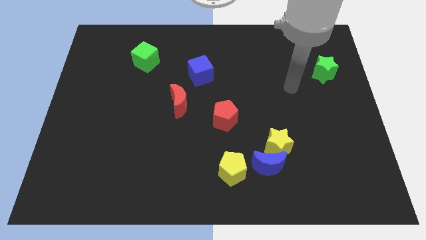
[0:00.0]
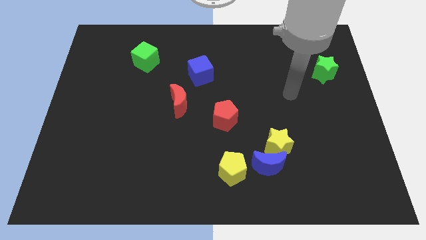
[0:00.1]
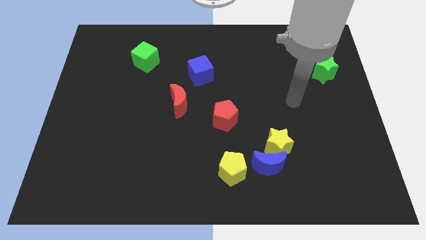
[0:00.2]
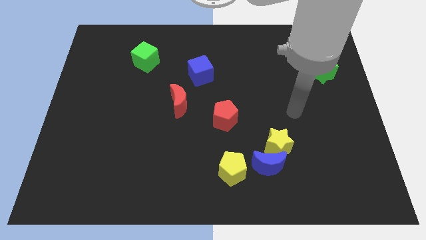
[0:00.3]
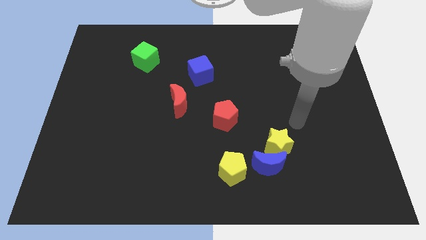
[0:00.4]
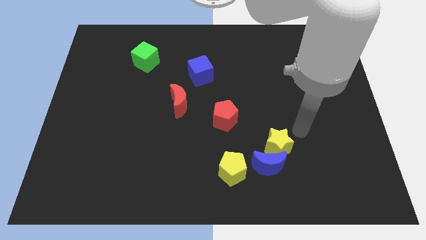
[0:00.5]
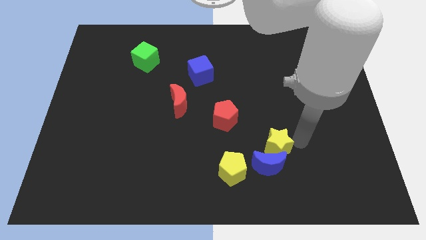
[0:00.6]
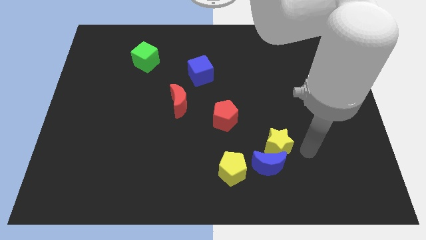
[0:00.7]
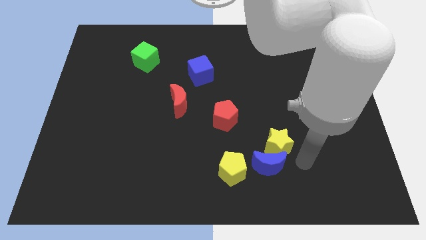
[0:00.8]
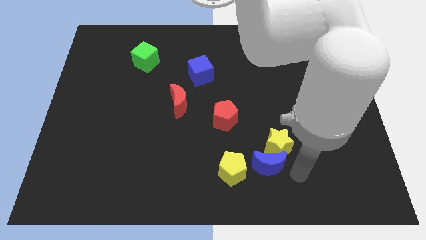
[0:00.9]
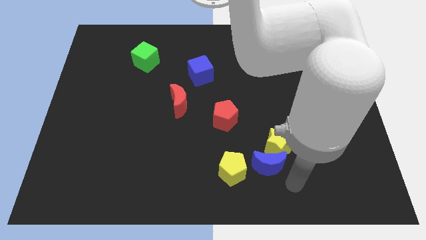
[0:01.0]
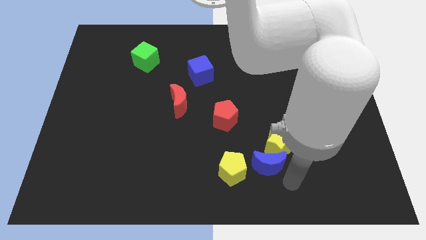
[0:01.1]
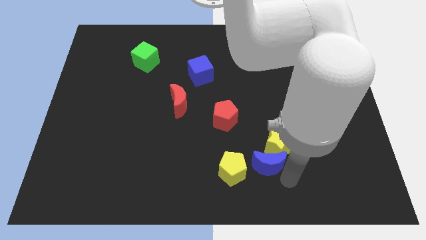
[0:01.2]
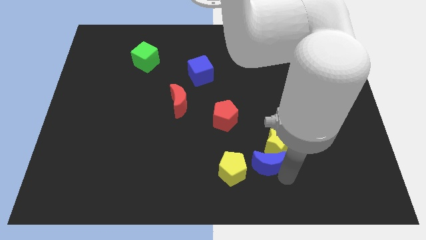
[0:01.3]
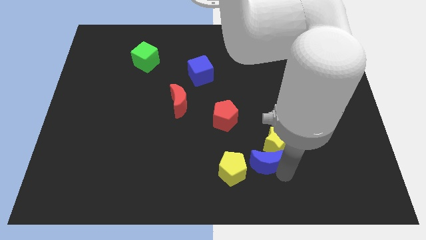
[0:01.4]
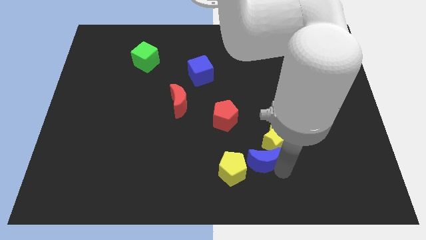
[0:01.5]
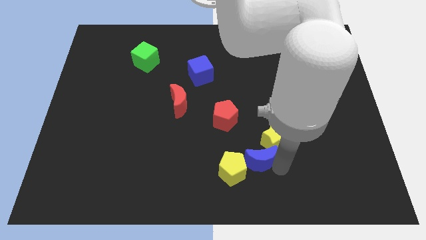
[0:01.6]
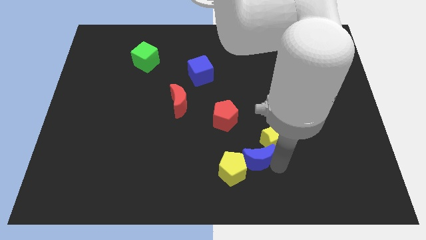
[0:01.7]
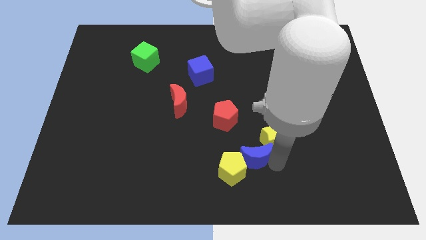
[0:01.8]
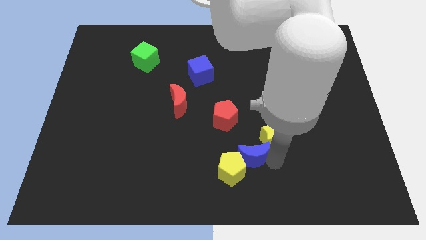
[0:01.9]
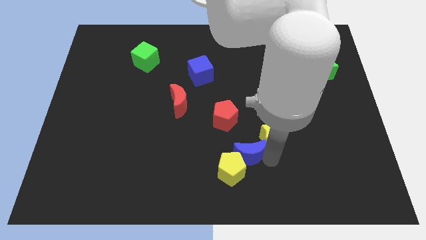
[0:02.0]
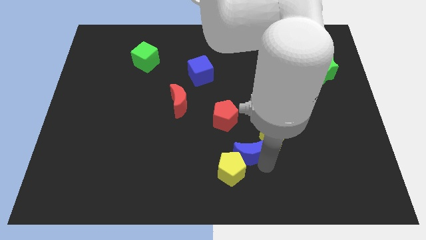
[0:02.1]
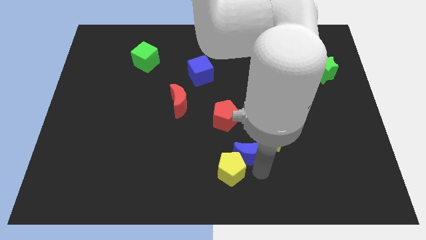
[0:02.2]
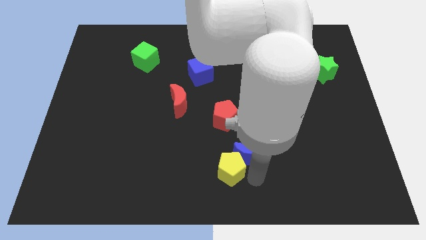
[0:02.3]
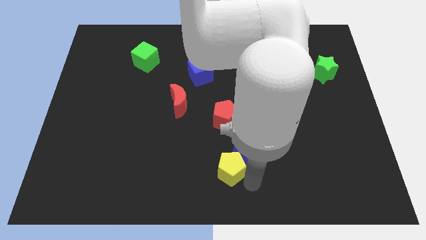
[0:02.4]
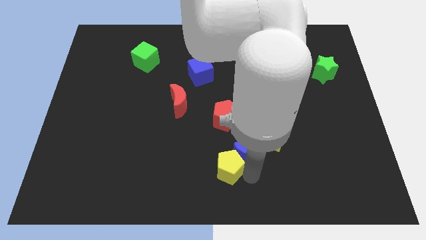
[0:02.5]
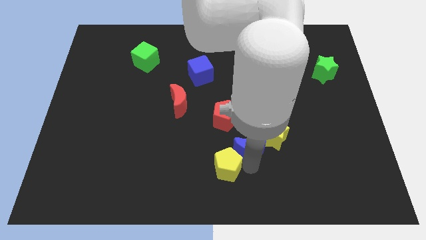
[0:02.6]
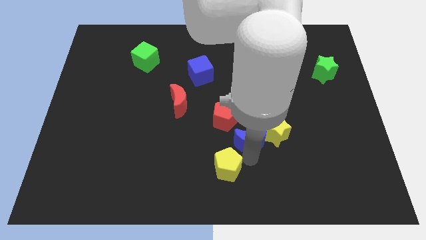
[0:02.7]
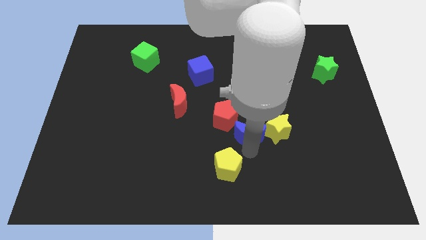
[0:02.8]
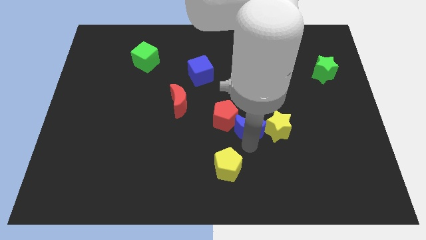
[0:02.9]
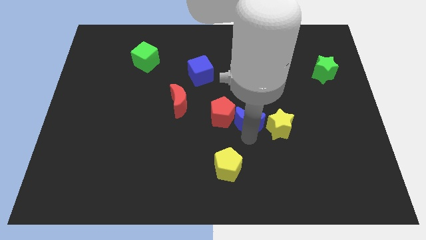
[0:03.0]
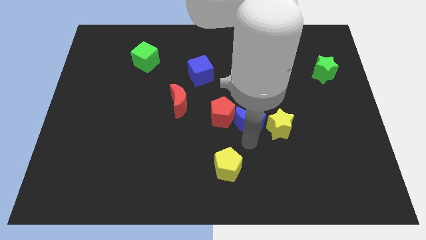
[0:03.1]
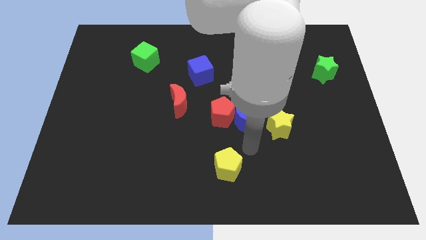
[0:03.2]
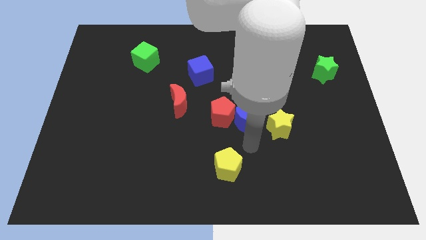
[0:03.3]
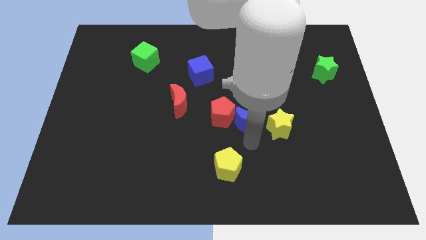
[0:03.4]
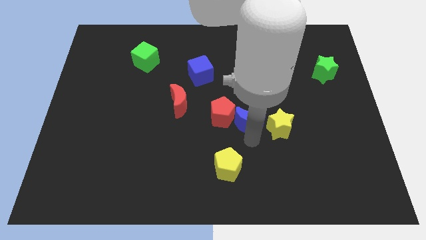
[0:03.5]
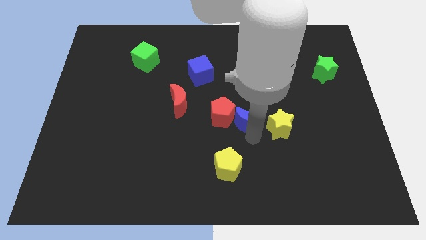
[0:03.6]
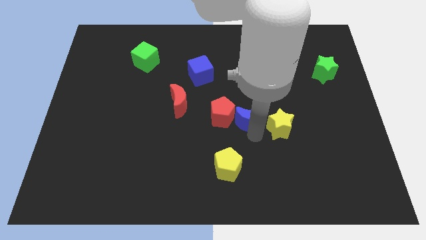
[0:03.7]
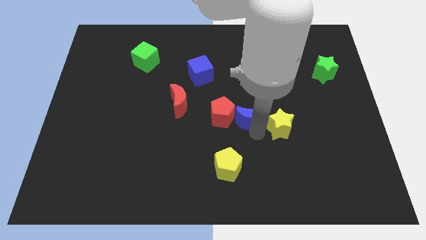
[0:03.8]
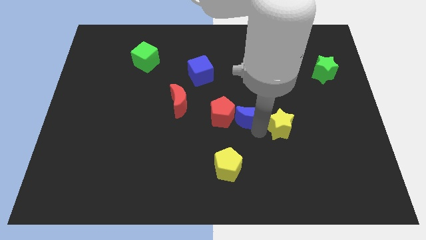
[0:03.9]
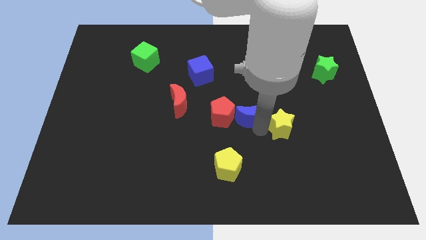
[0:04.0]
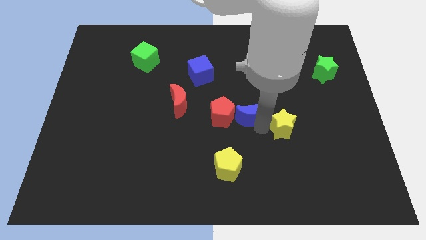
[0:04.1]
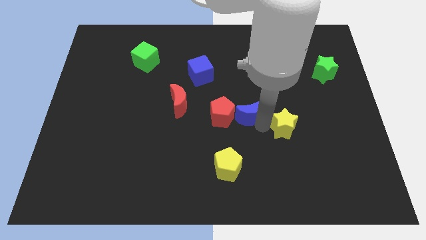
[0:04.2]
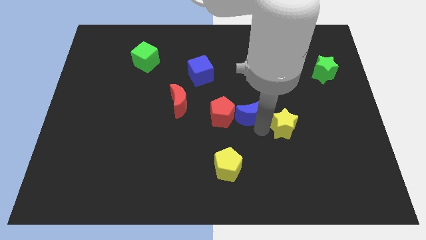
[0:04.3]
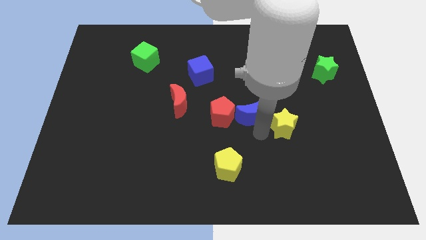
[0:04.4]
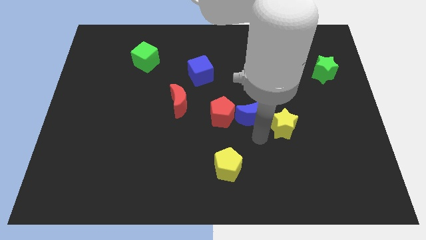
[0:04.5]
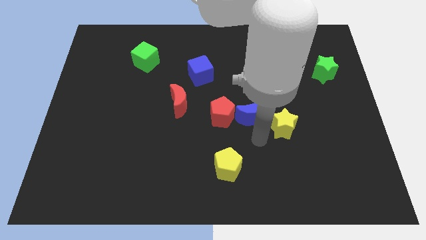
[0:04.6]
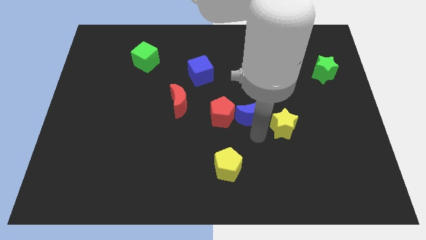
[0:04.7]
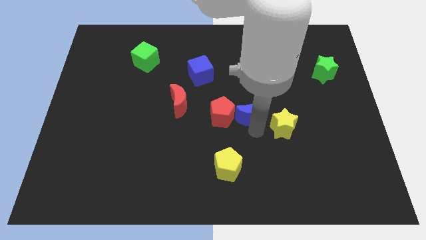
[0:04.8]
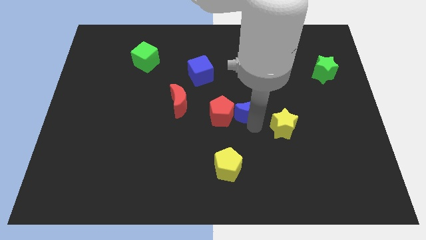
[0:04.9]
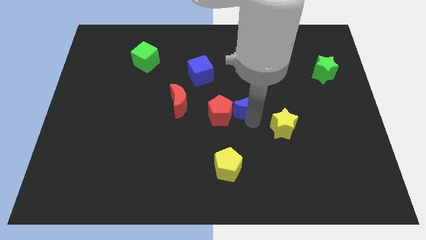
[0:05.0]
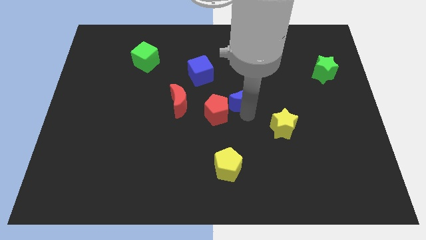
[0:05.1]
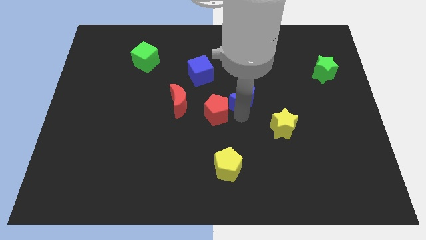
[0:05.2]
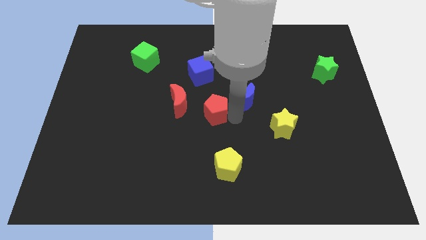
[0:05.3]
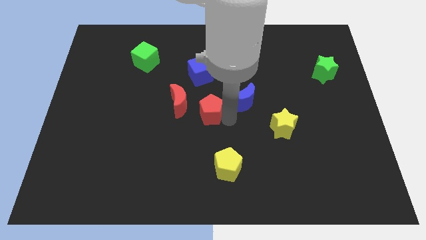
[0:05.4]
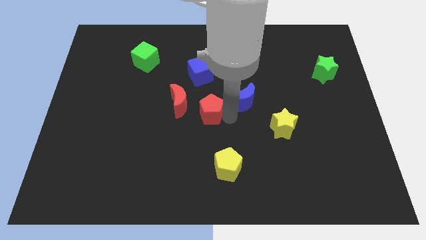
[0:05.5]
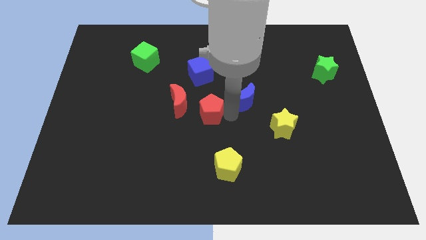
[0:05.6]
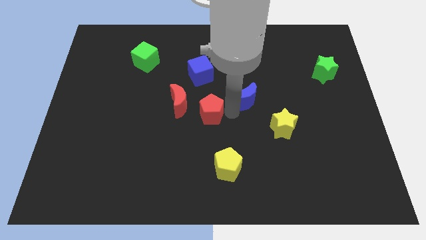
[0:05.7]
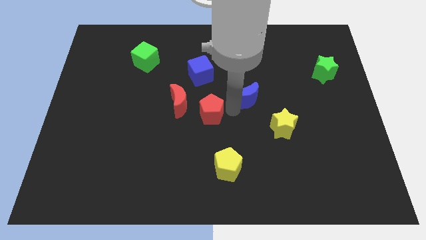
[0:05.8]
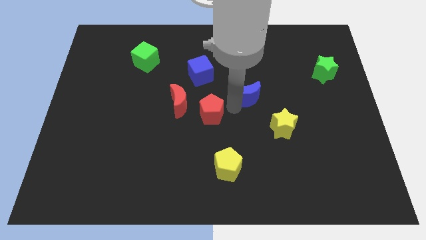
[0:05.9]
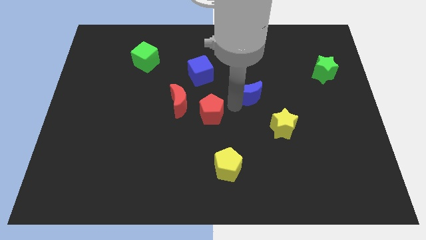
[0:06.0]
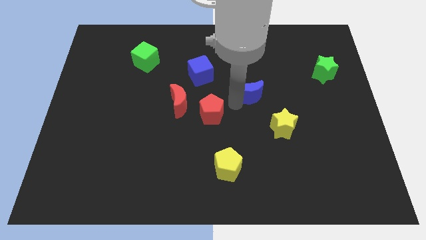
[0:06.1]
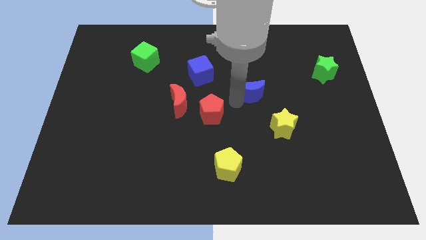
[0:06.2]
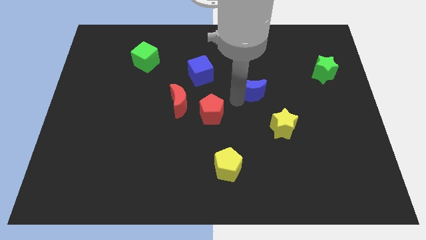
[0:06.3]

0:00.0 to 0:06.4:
push the blue moon up

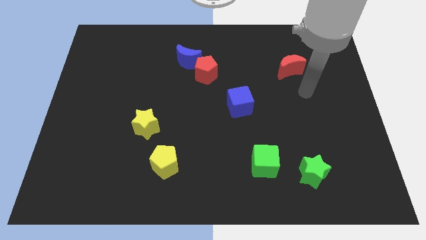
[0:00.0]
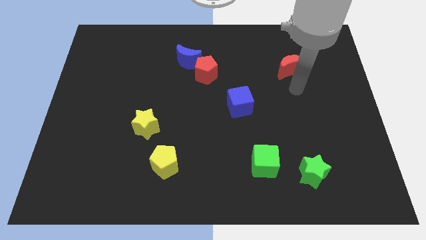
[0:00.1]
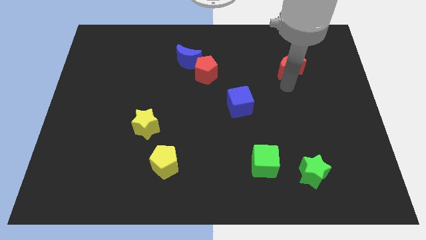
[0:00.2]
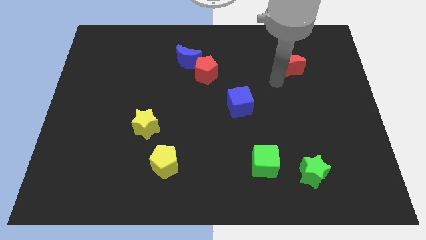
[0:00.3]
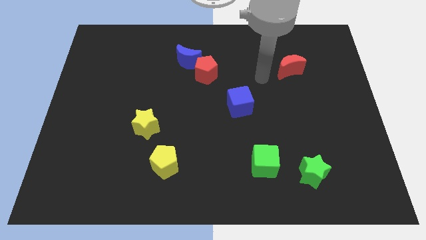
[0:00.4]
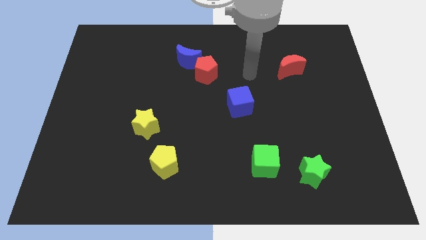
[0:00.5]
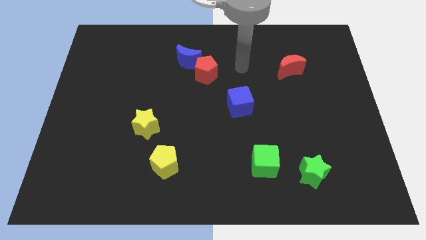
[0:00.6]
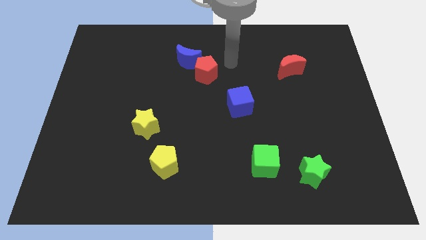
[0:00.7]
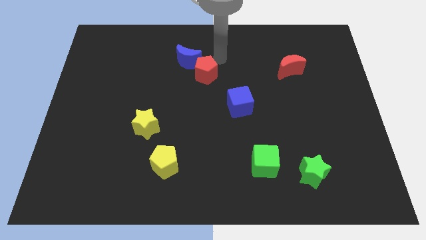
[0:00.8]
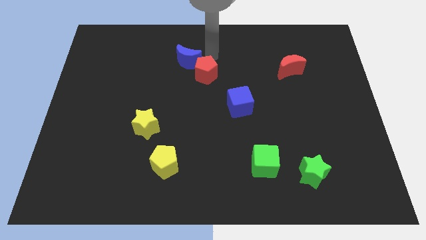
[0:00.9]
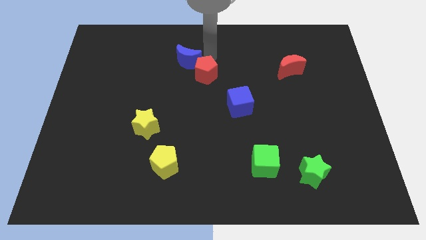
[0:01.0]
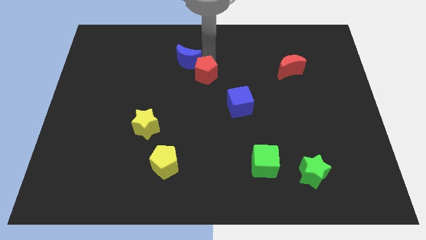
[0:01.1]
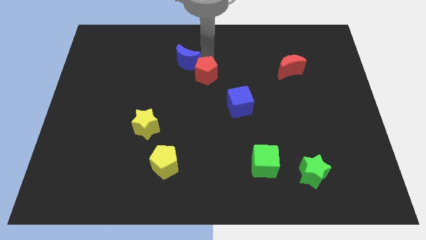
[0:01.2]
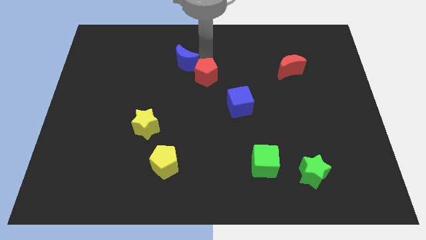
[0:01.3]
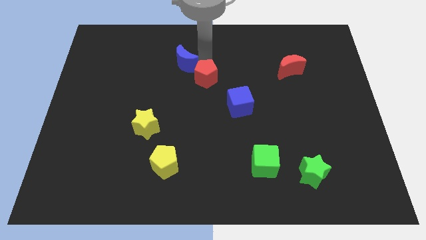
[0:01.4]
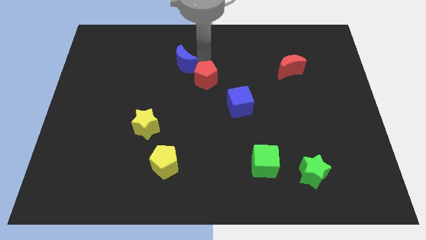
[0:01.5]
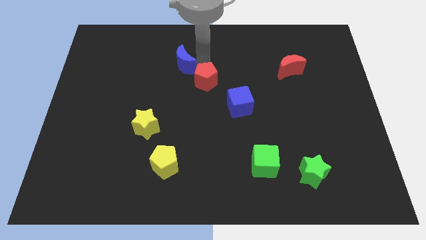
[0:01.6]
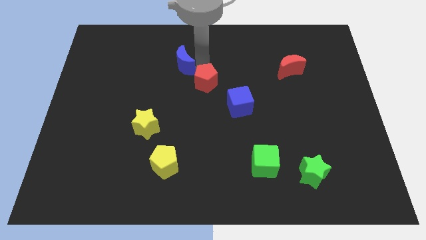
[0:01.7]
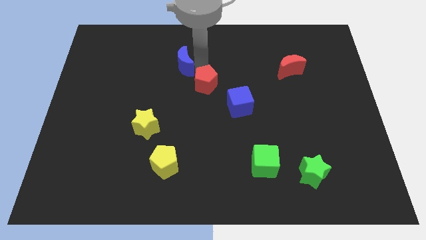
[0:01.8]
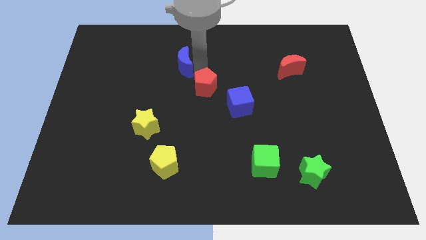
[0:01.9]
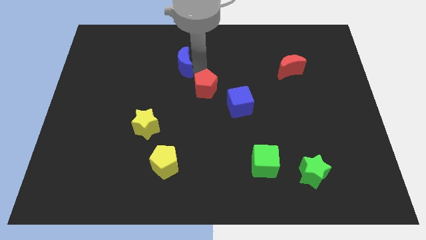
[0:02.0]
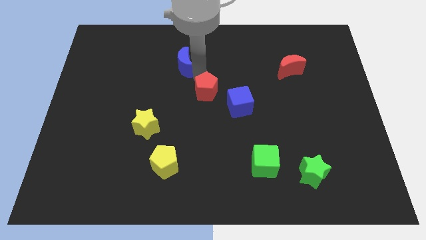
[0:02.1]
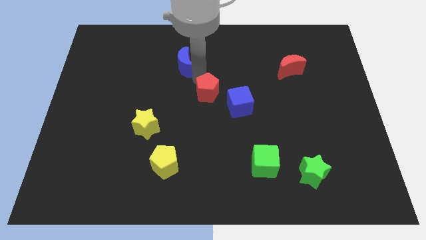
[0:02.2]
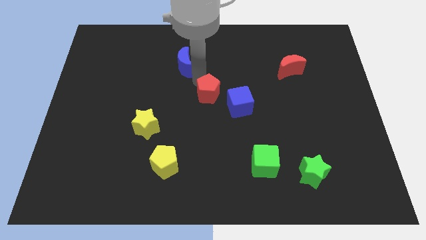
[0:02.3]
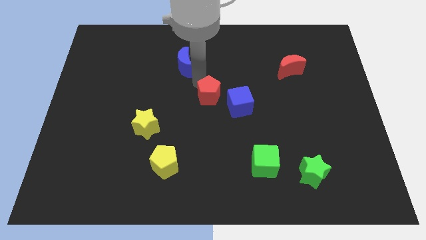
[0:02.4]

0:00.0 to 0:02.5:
slightly move the red pentagon down
